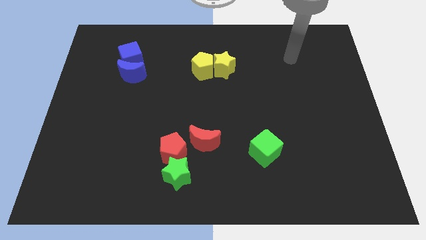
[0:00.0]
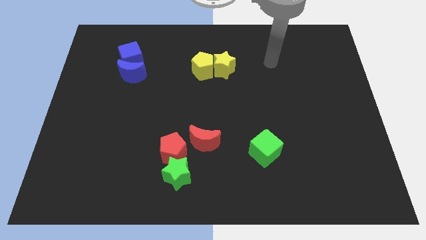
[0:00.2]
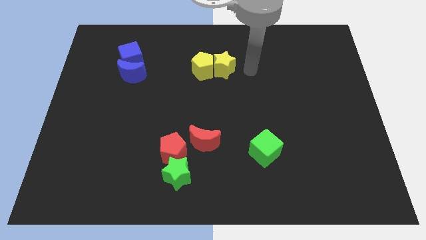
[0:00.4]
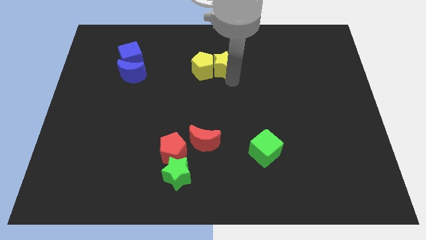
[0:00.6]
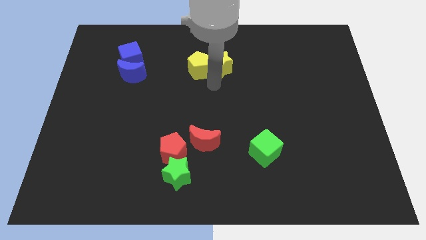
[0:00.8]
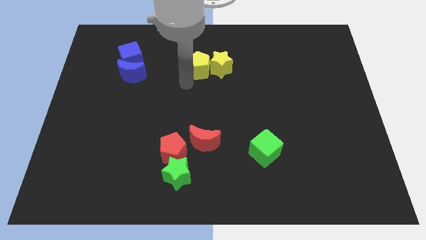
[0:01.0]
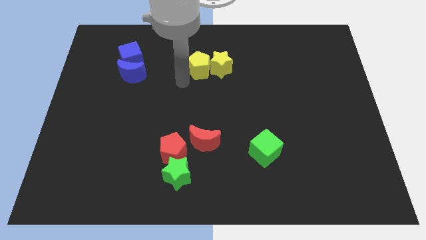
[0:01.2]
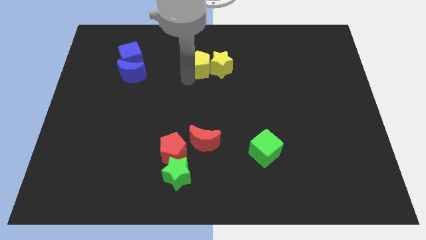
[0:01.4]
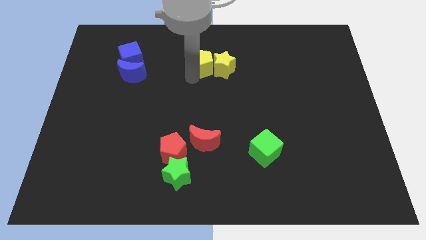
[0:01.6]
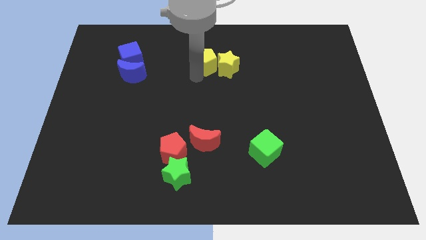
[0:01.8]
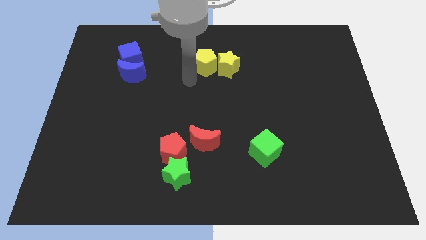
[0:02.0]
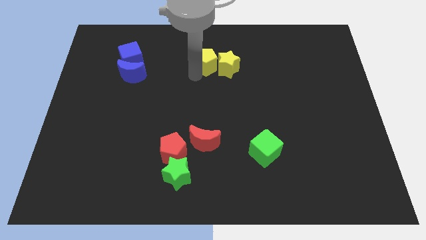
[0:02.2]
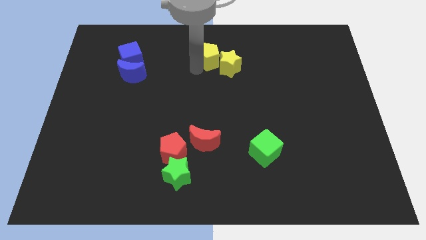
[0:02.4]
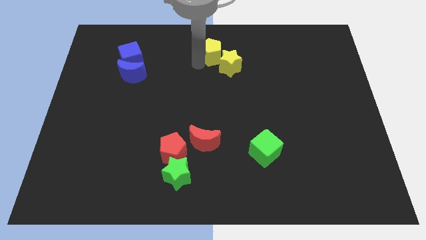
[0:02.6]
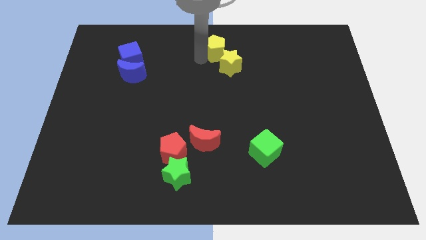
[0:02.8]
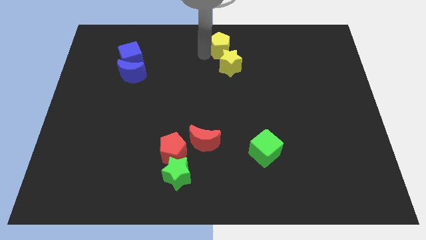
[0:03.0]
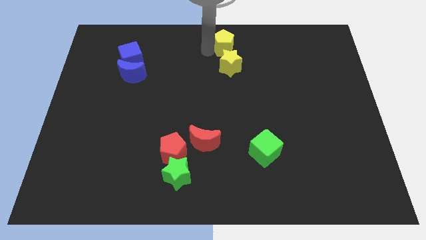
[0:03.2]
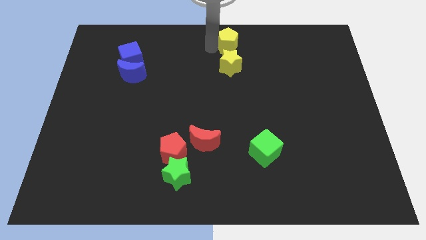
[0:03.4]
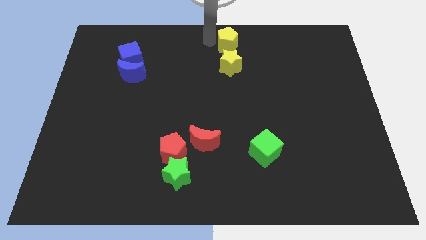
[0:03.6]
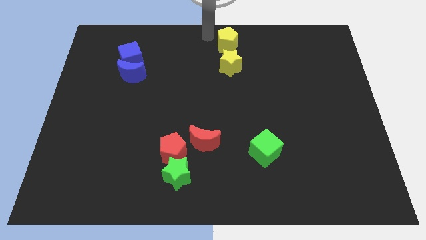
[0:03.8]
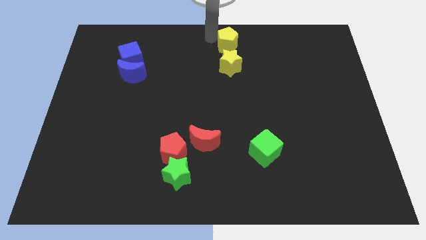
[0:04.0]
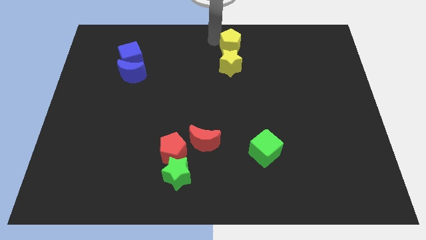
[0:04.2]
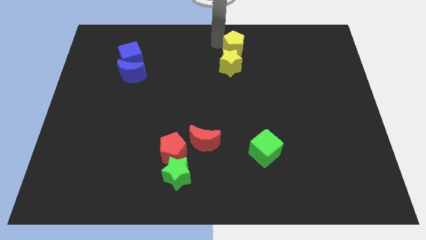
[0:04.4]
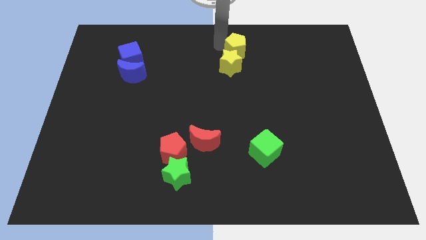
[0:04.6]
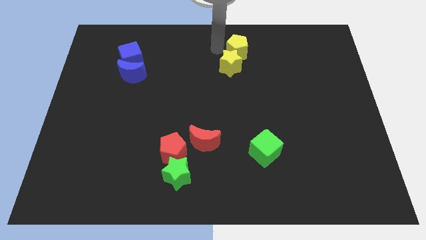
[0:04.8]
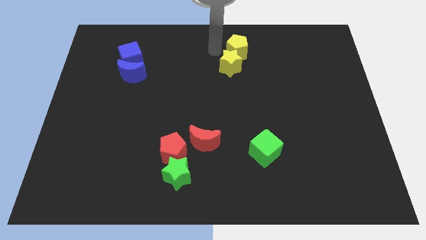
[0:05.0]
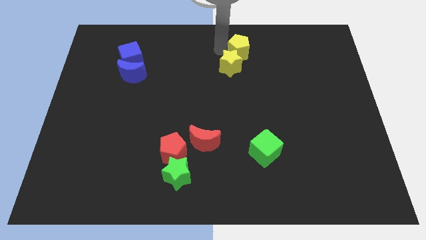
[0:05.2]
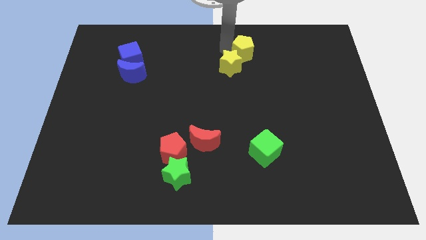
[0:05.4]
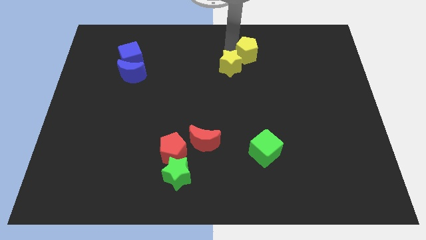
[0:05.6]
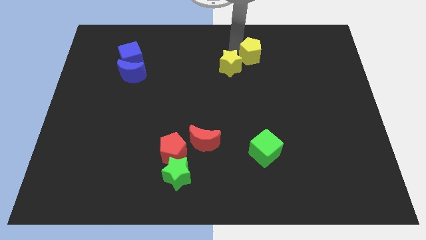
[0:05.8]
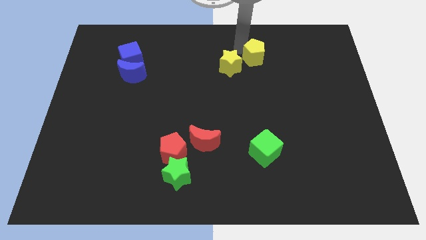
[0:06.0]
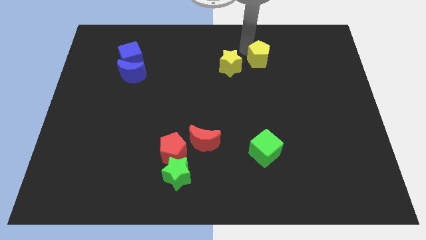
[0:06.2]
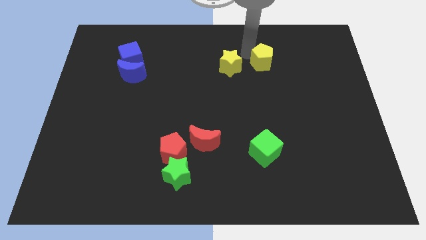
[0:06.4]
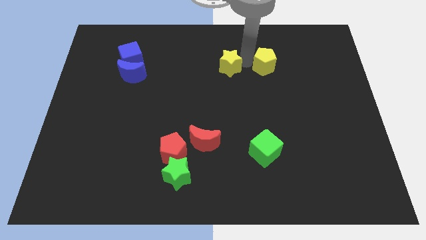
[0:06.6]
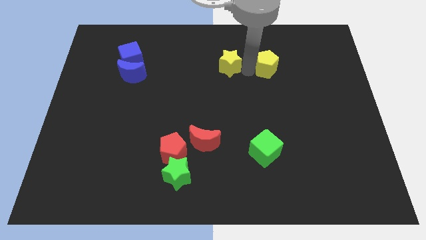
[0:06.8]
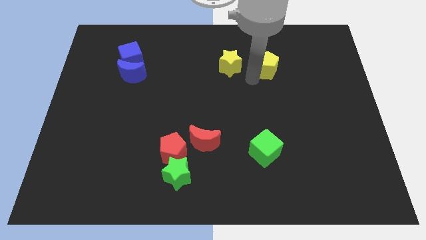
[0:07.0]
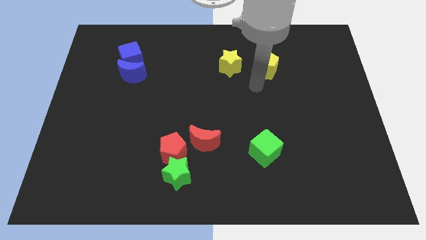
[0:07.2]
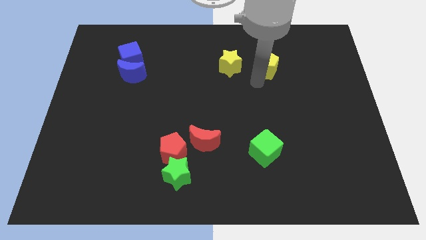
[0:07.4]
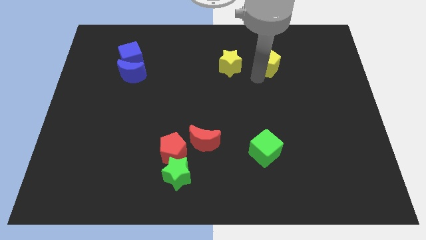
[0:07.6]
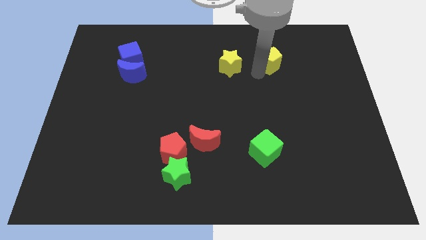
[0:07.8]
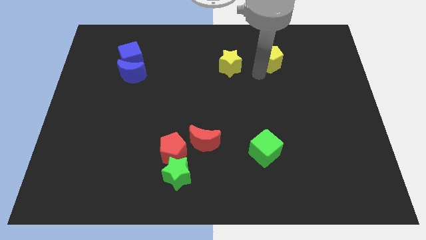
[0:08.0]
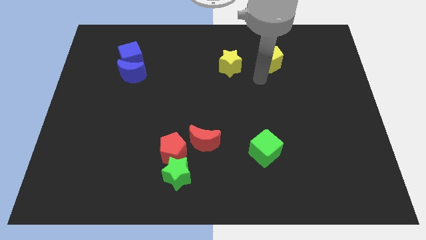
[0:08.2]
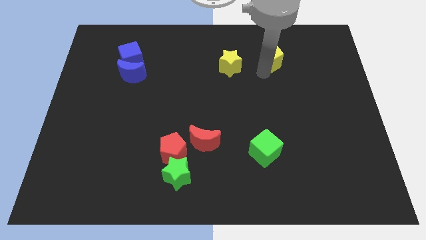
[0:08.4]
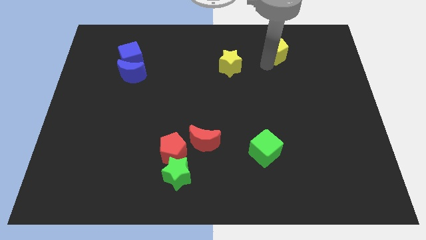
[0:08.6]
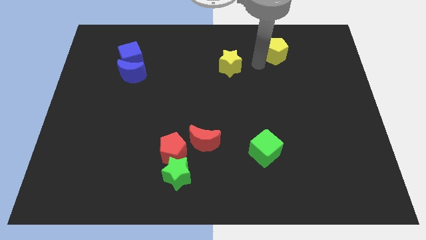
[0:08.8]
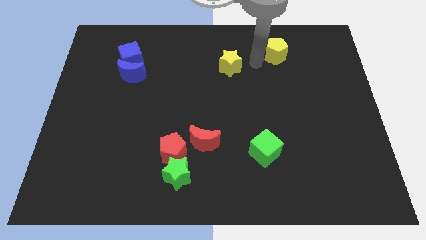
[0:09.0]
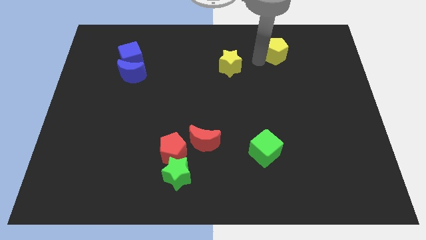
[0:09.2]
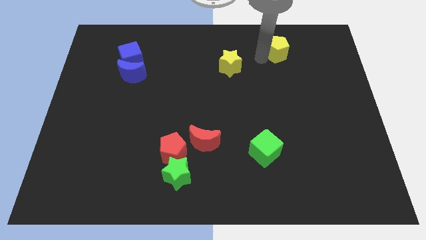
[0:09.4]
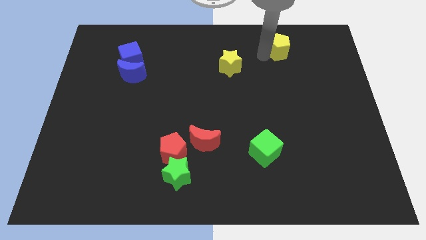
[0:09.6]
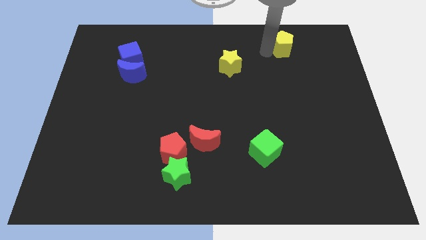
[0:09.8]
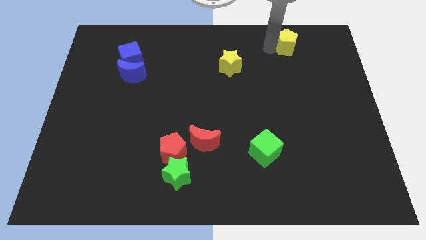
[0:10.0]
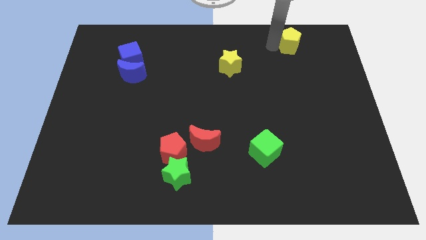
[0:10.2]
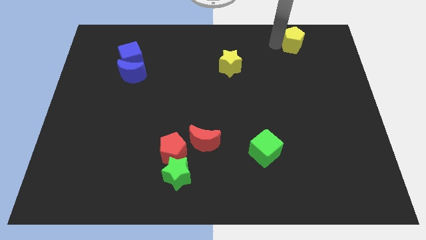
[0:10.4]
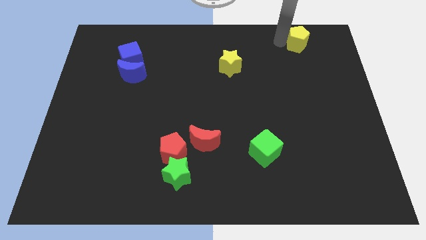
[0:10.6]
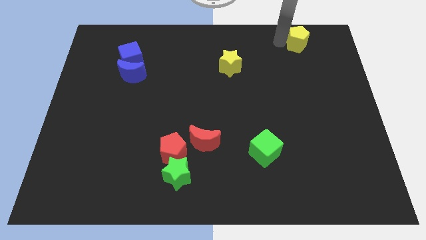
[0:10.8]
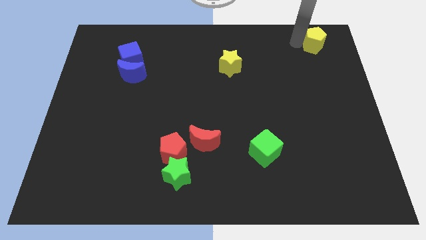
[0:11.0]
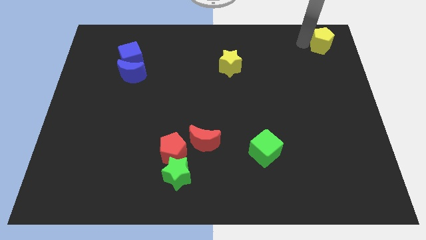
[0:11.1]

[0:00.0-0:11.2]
move the yellow pentagon to the top right of the board

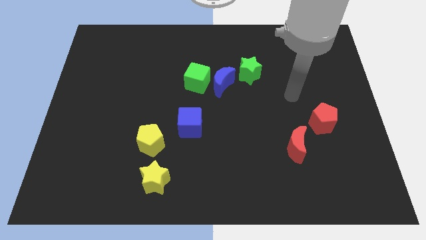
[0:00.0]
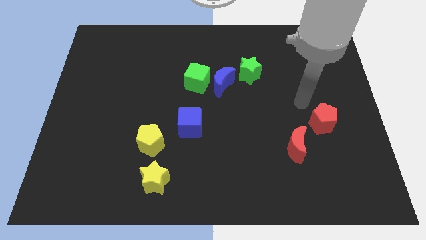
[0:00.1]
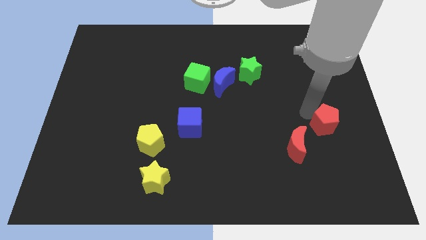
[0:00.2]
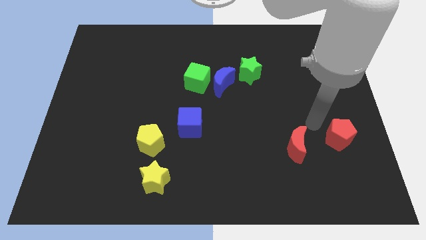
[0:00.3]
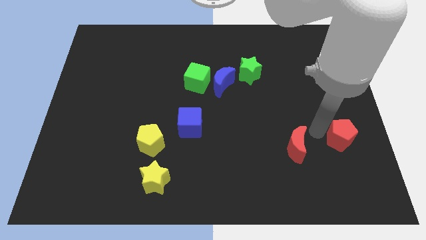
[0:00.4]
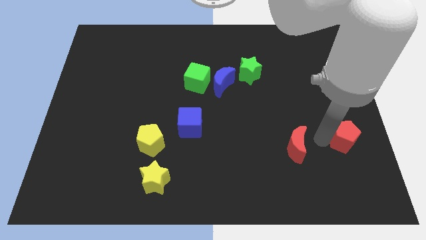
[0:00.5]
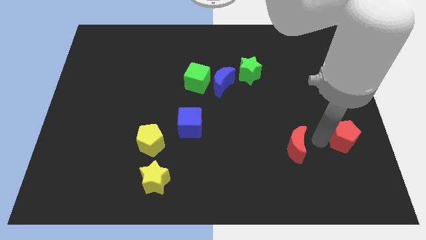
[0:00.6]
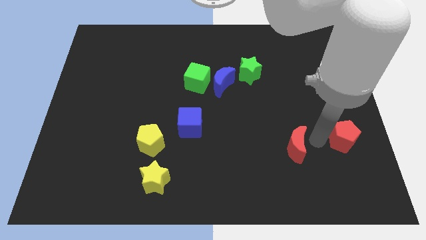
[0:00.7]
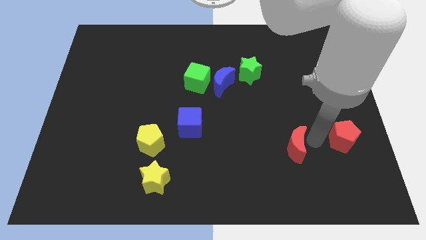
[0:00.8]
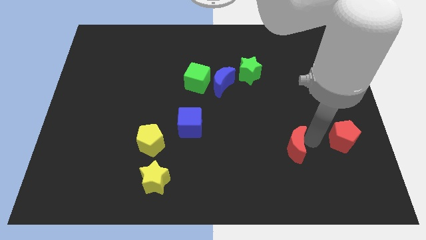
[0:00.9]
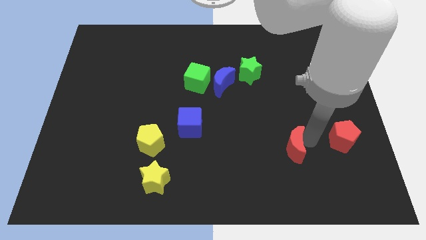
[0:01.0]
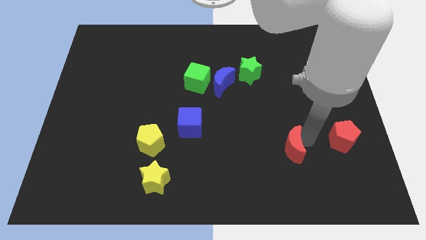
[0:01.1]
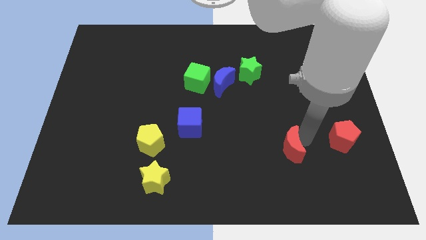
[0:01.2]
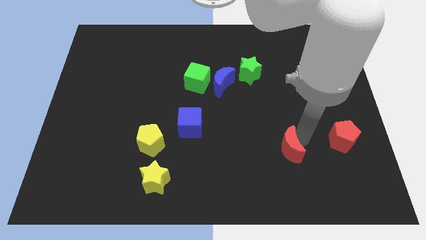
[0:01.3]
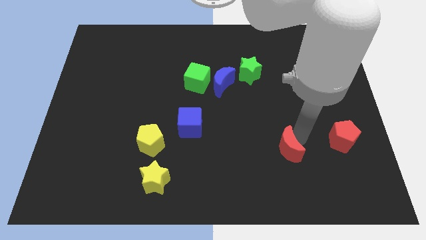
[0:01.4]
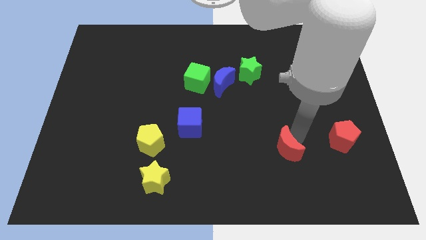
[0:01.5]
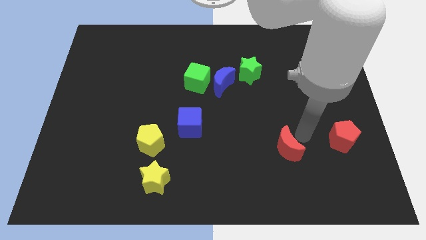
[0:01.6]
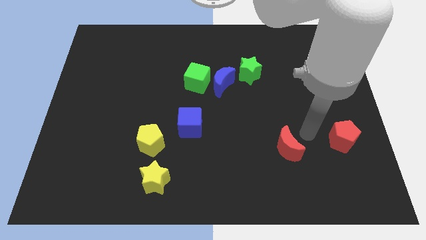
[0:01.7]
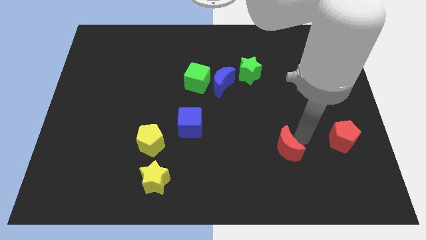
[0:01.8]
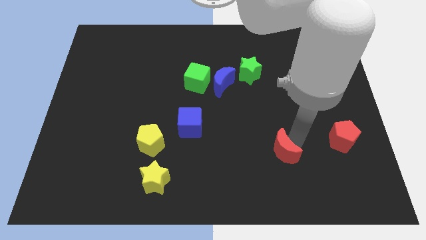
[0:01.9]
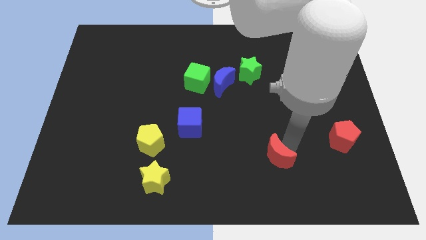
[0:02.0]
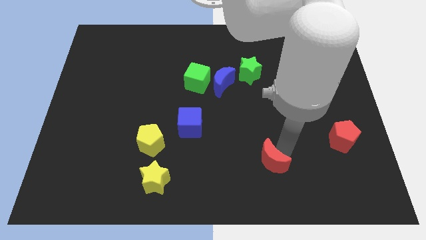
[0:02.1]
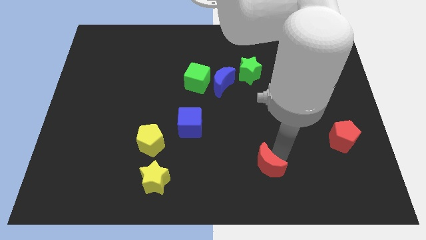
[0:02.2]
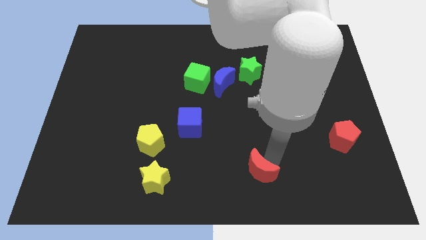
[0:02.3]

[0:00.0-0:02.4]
move the red moon to the bottom
